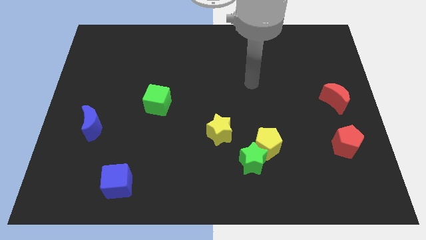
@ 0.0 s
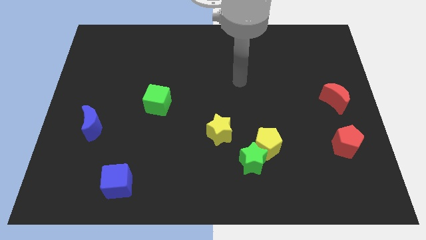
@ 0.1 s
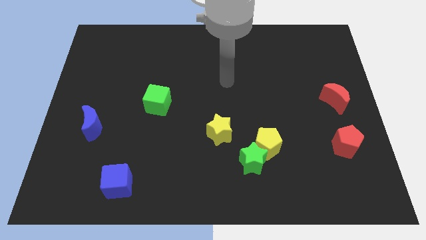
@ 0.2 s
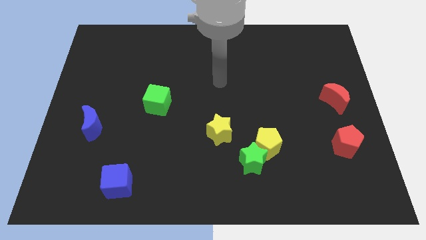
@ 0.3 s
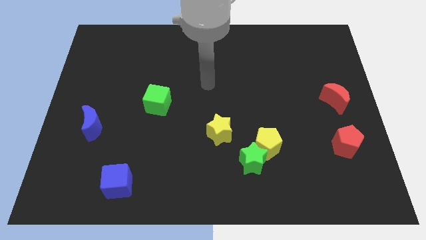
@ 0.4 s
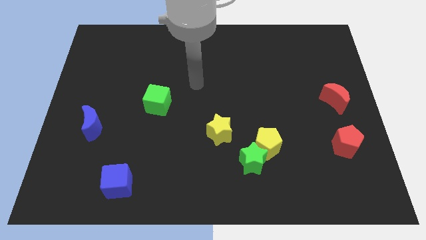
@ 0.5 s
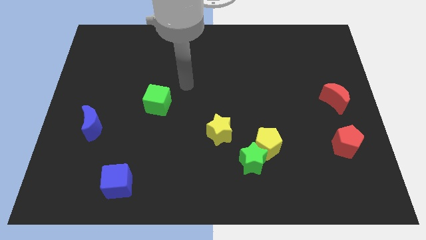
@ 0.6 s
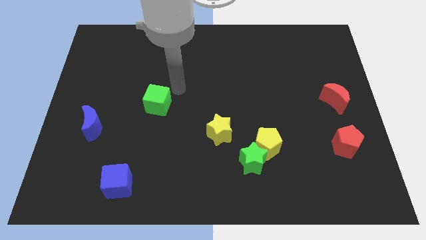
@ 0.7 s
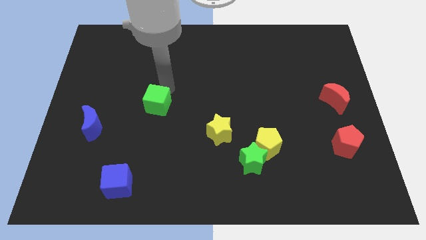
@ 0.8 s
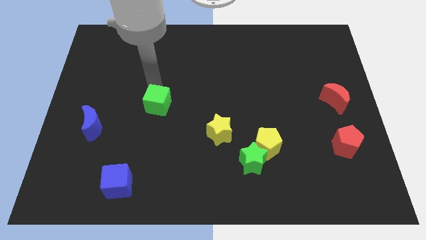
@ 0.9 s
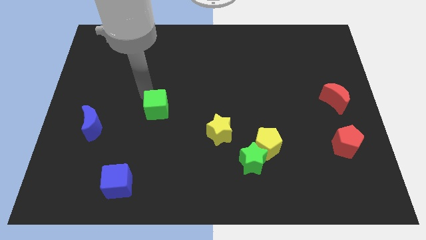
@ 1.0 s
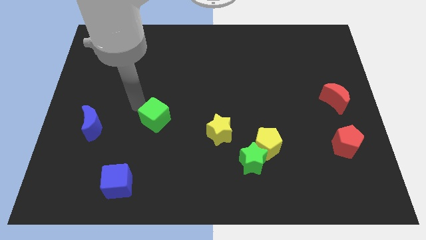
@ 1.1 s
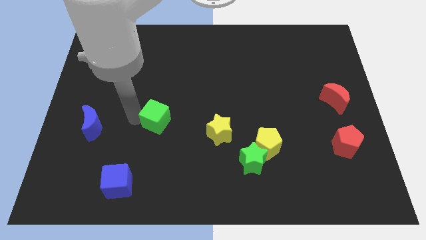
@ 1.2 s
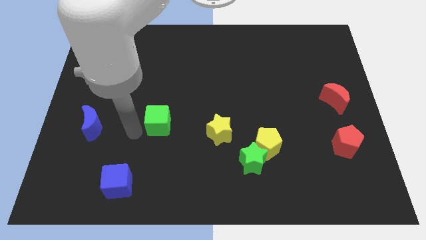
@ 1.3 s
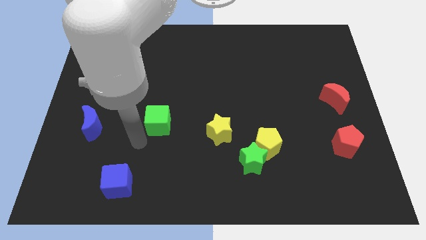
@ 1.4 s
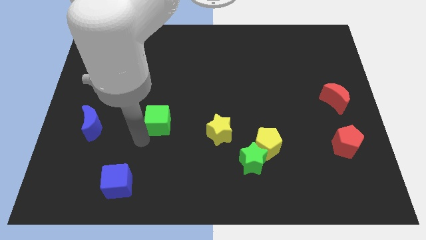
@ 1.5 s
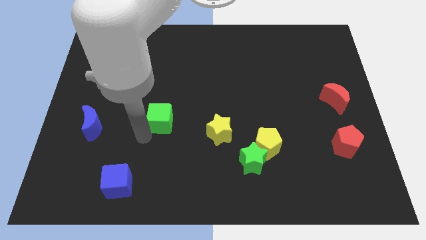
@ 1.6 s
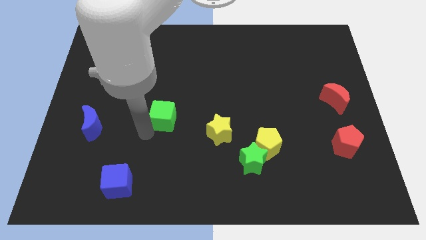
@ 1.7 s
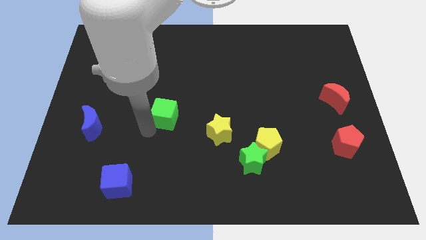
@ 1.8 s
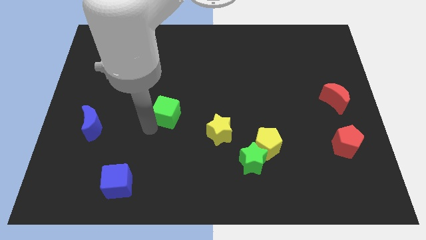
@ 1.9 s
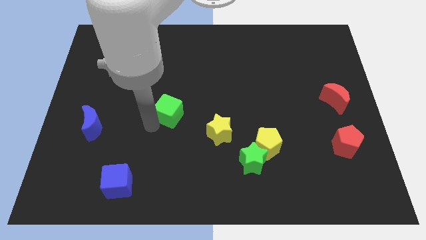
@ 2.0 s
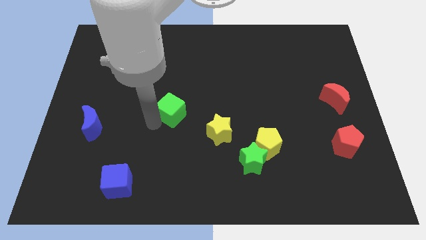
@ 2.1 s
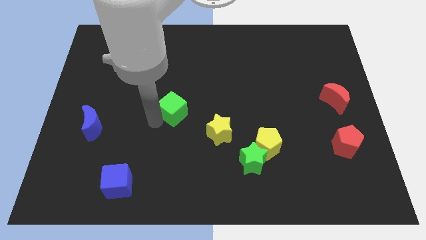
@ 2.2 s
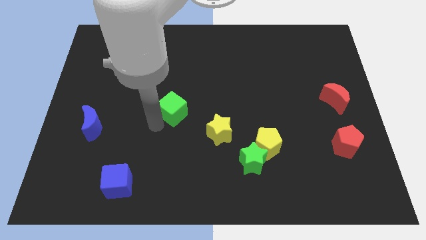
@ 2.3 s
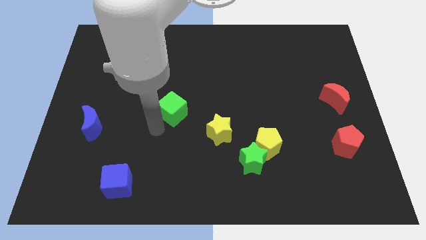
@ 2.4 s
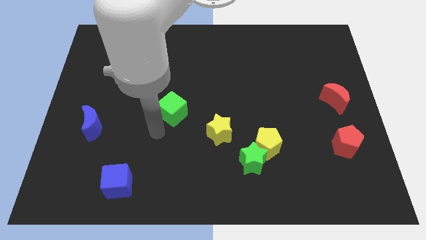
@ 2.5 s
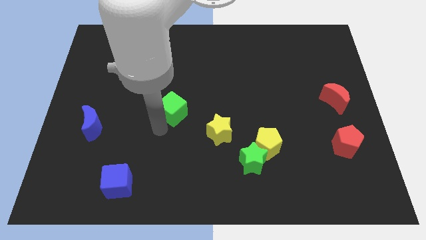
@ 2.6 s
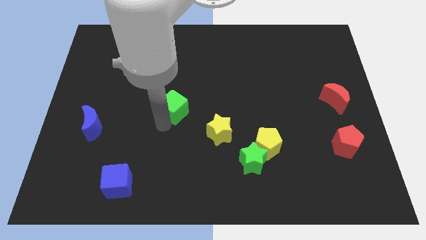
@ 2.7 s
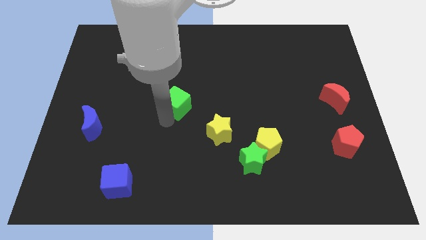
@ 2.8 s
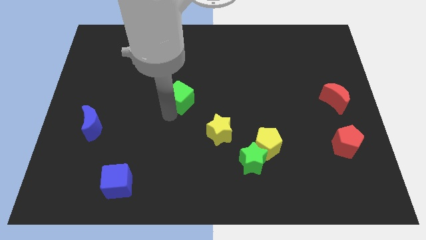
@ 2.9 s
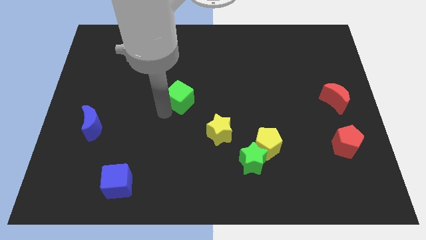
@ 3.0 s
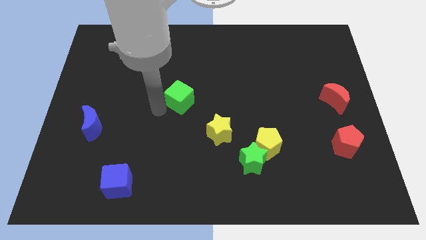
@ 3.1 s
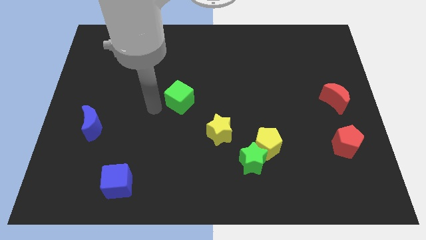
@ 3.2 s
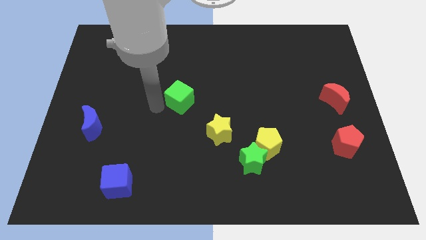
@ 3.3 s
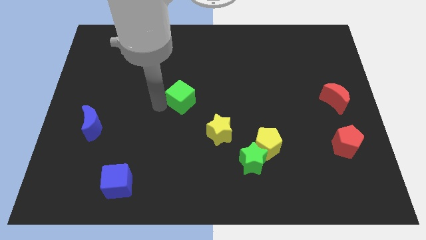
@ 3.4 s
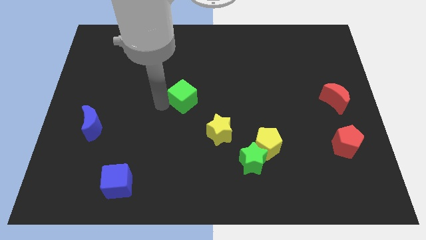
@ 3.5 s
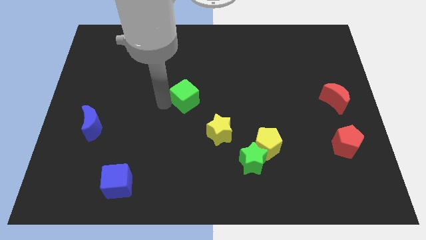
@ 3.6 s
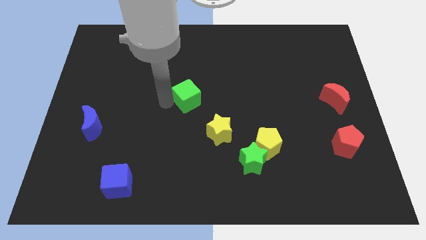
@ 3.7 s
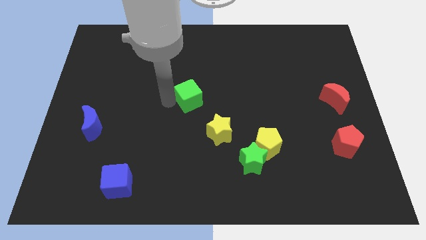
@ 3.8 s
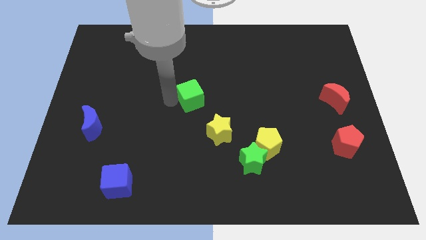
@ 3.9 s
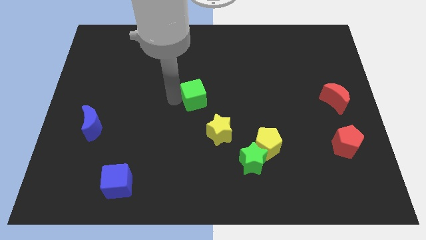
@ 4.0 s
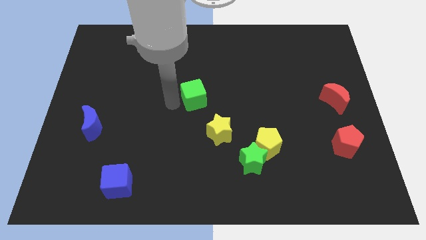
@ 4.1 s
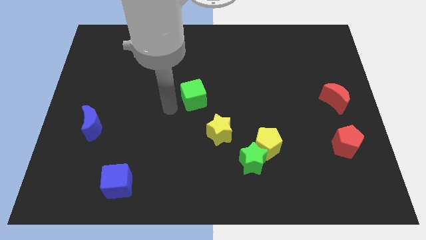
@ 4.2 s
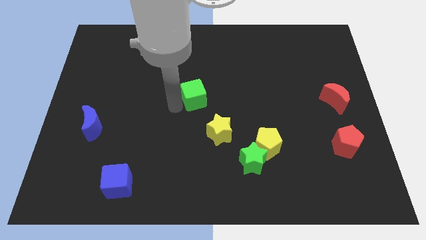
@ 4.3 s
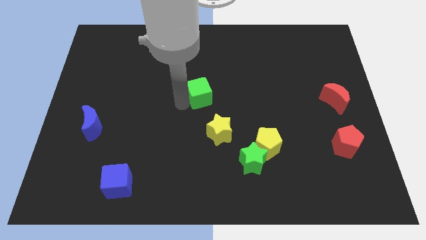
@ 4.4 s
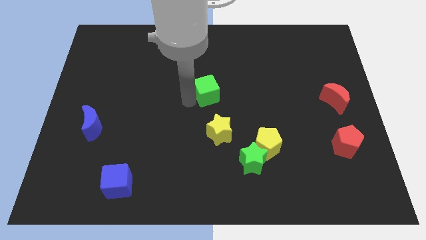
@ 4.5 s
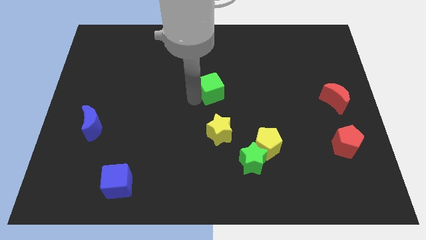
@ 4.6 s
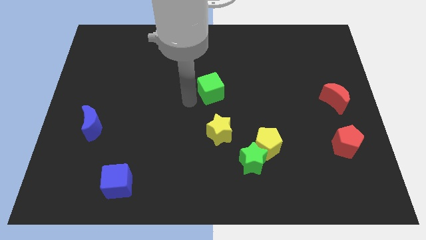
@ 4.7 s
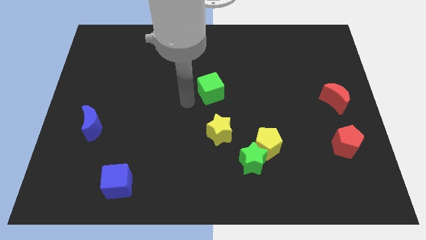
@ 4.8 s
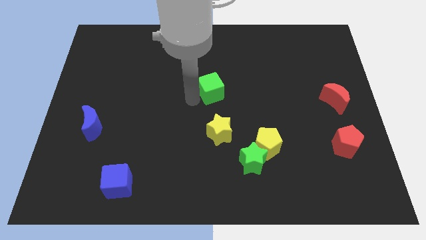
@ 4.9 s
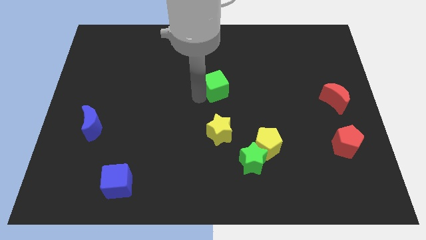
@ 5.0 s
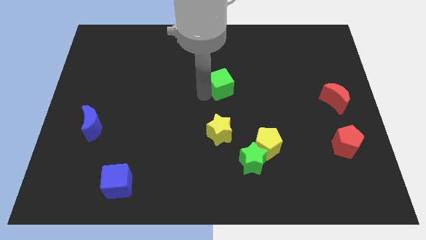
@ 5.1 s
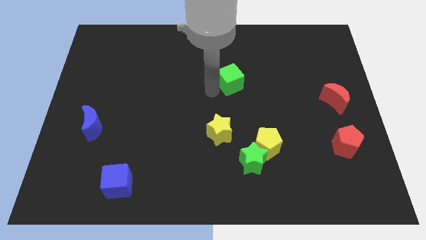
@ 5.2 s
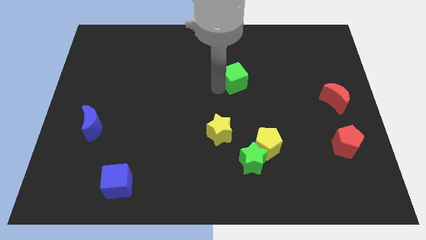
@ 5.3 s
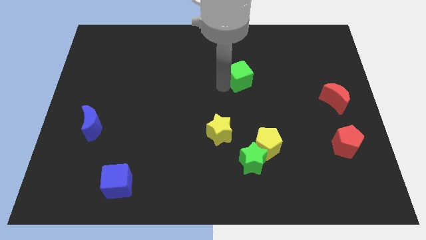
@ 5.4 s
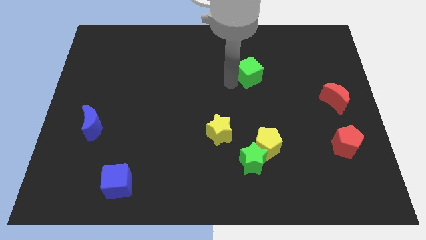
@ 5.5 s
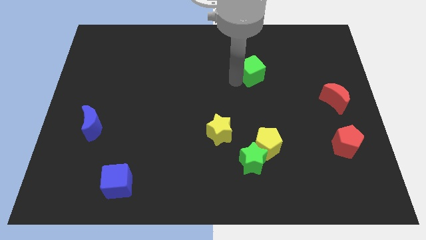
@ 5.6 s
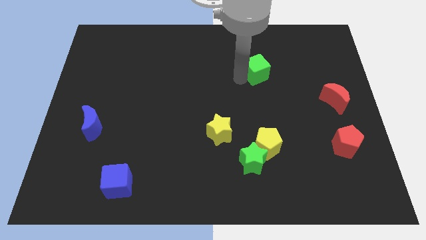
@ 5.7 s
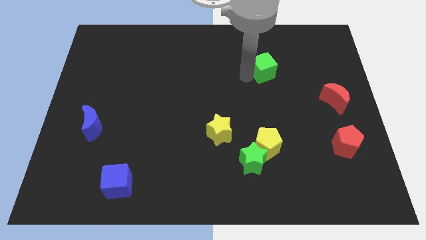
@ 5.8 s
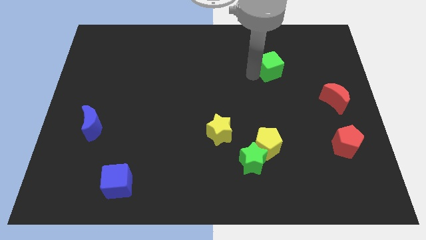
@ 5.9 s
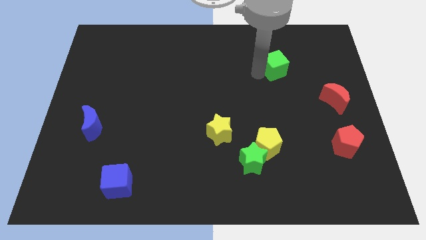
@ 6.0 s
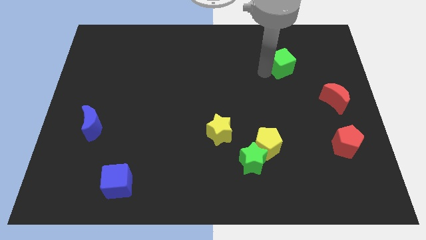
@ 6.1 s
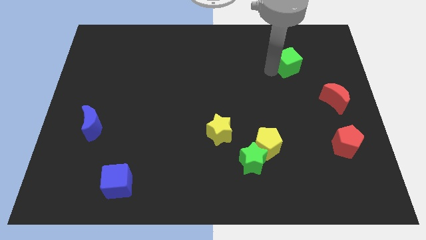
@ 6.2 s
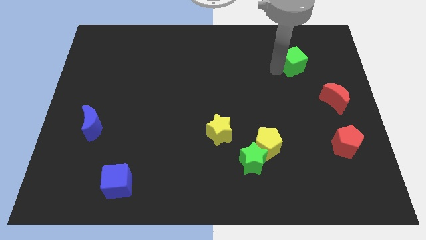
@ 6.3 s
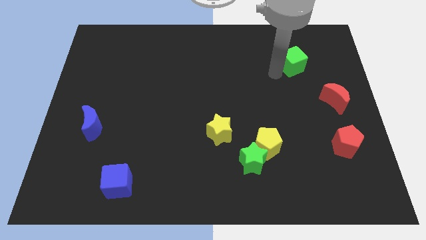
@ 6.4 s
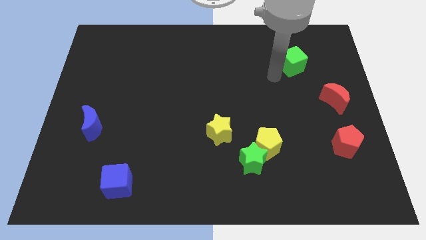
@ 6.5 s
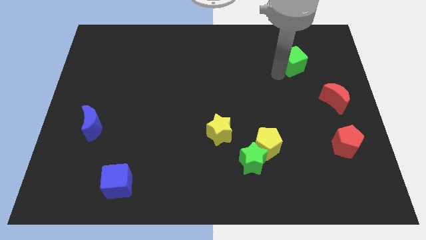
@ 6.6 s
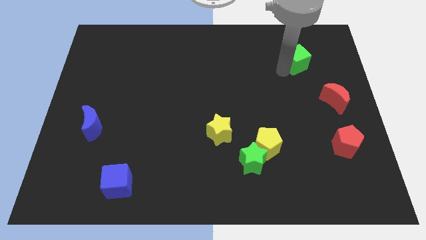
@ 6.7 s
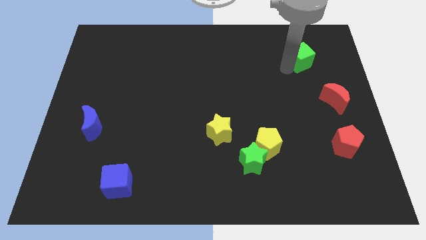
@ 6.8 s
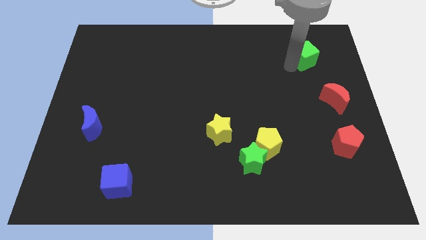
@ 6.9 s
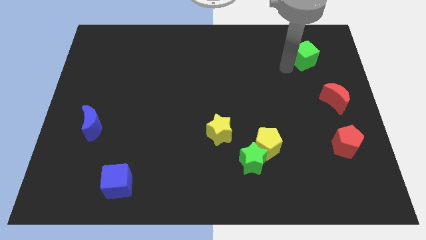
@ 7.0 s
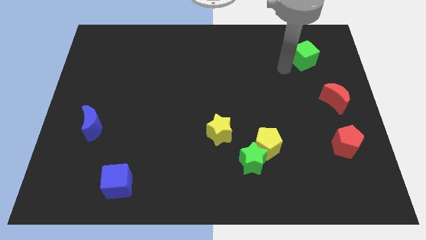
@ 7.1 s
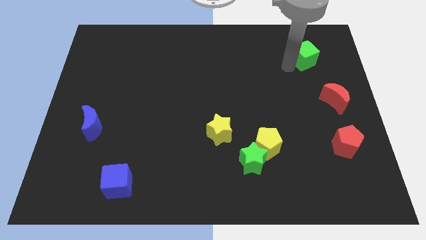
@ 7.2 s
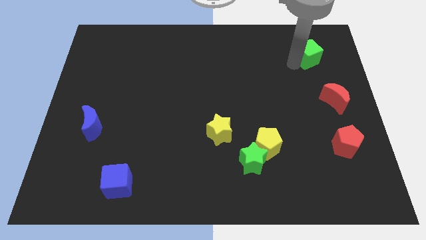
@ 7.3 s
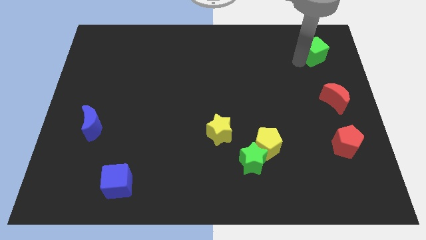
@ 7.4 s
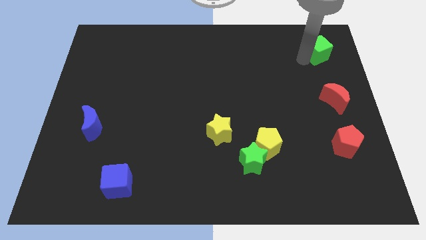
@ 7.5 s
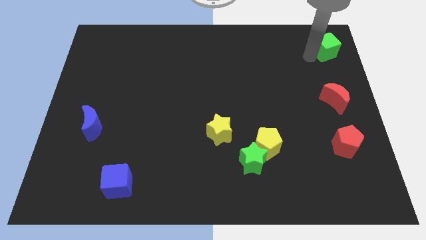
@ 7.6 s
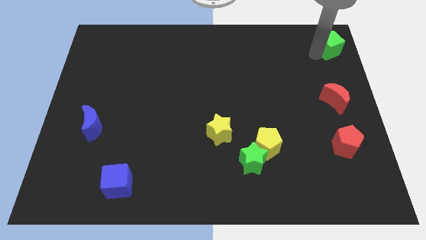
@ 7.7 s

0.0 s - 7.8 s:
move the green cube to the upper right corner
